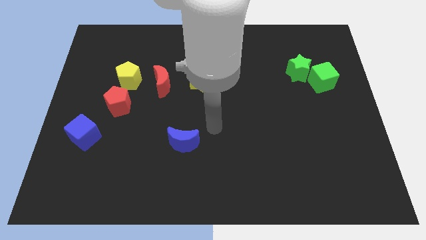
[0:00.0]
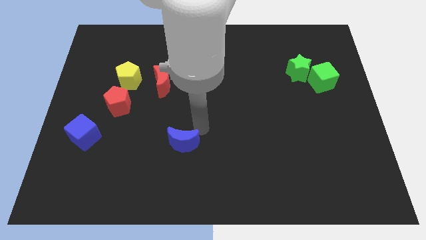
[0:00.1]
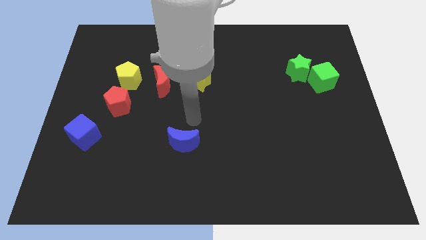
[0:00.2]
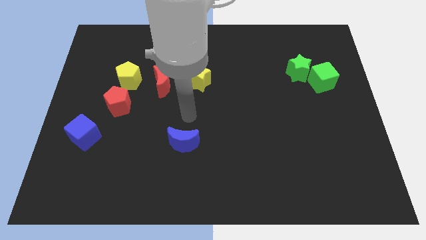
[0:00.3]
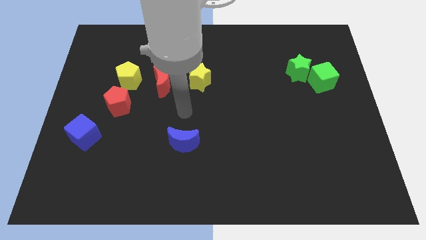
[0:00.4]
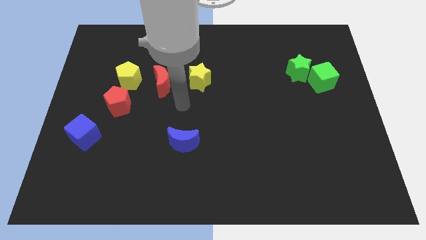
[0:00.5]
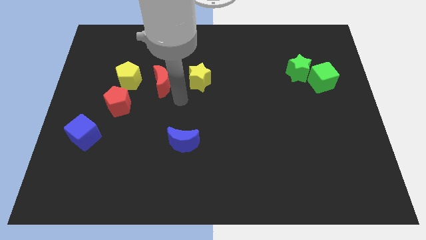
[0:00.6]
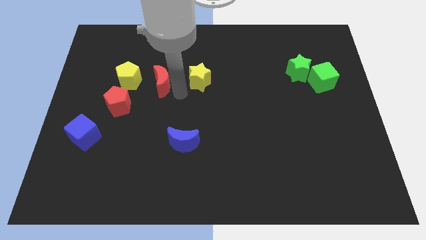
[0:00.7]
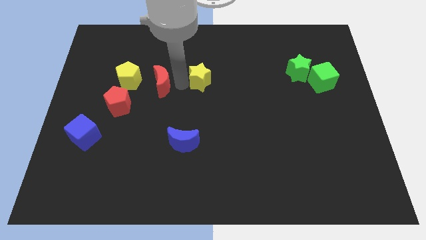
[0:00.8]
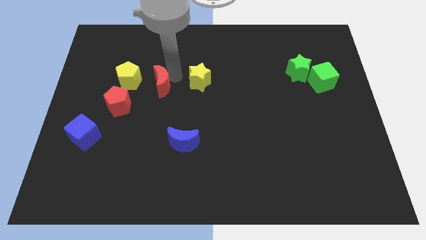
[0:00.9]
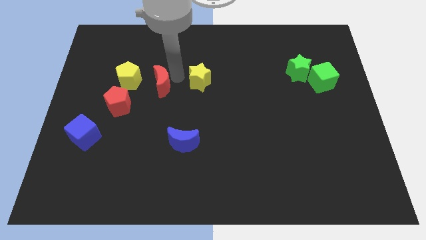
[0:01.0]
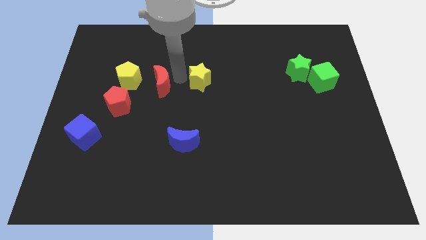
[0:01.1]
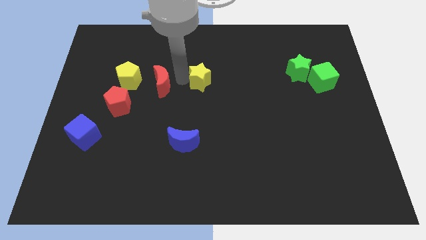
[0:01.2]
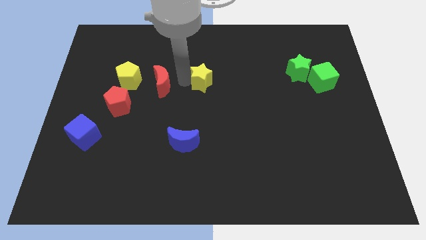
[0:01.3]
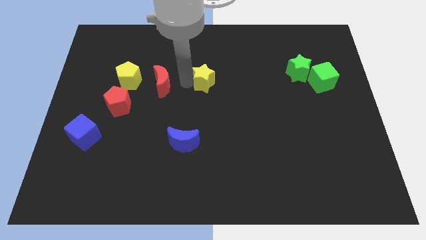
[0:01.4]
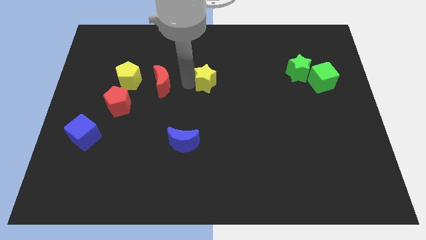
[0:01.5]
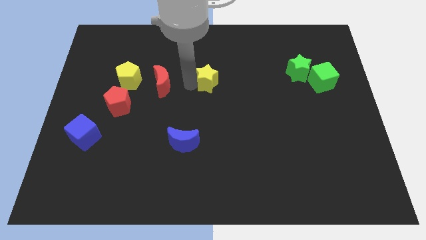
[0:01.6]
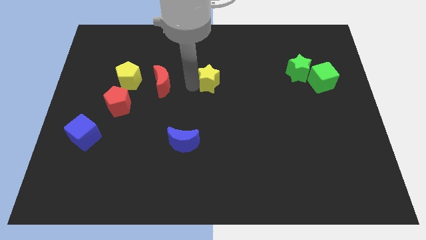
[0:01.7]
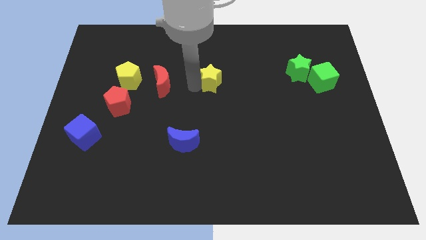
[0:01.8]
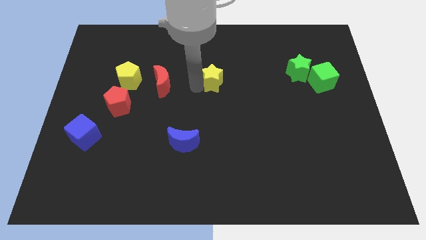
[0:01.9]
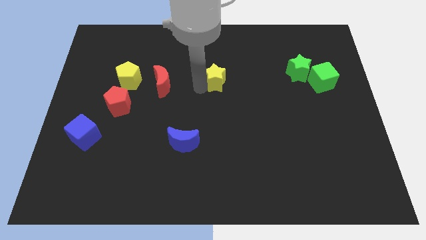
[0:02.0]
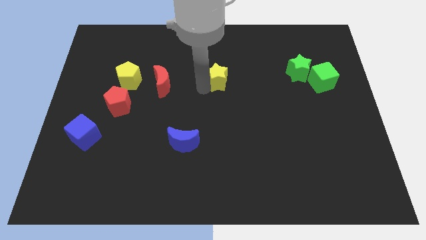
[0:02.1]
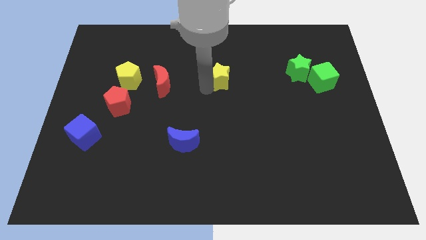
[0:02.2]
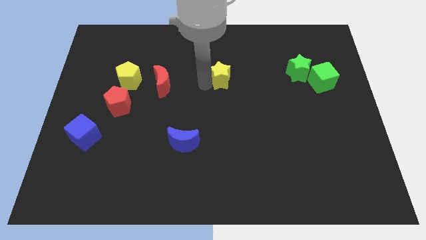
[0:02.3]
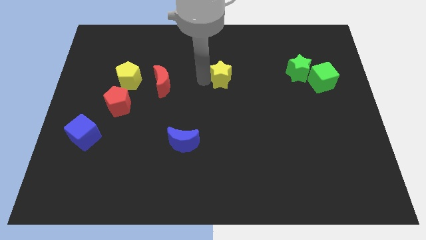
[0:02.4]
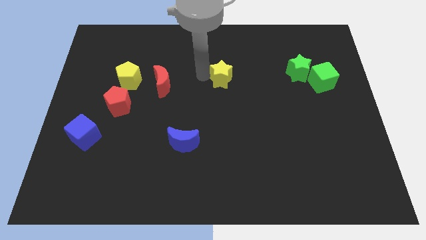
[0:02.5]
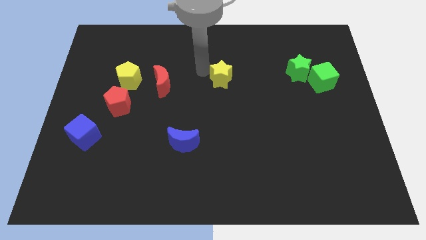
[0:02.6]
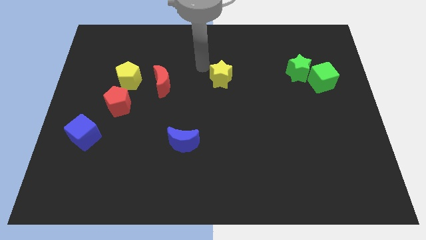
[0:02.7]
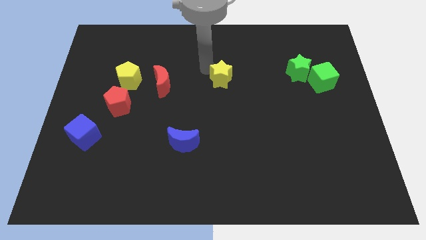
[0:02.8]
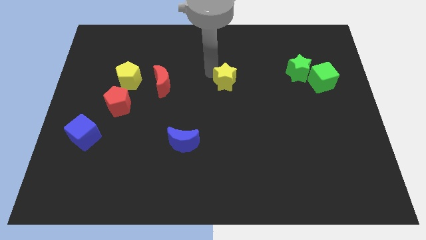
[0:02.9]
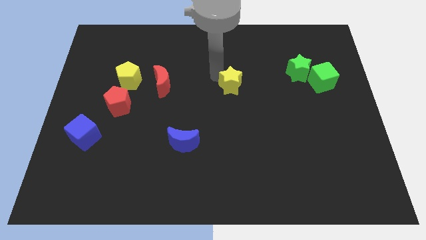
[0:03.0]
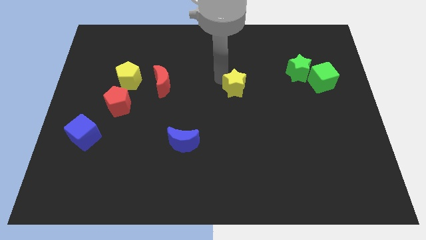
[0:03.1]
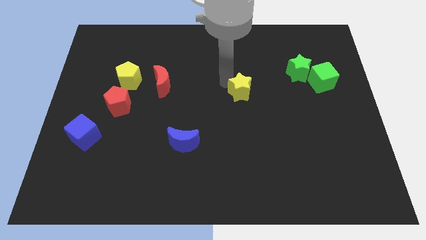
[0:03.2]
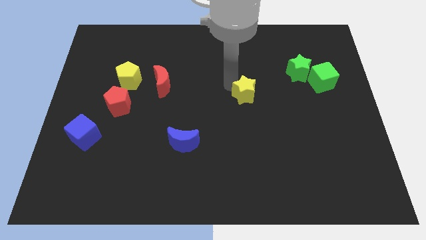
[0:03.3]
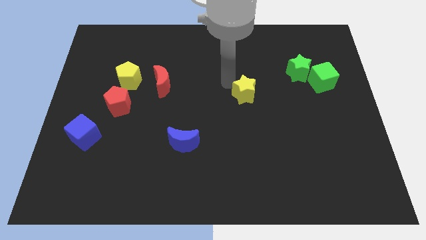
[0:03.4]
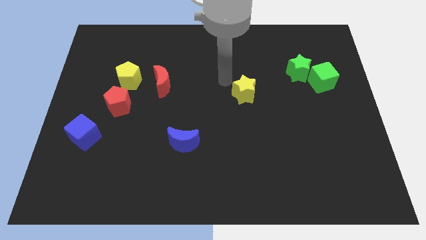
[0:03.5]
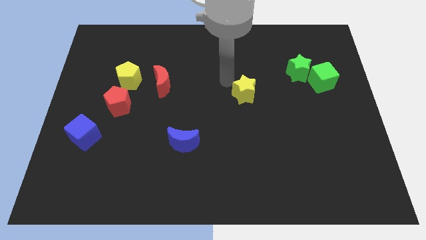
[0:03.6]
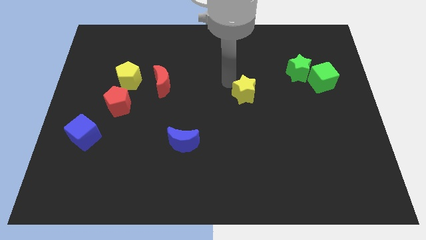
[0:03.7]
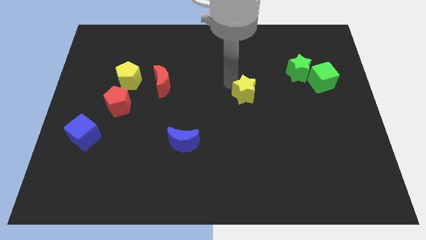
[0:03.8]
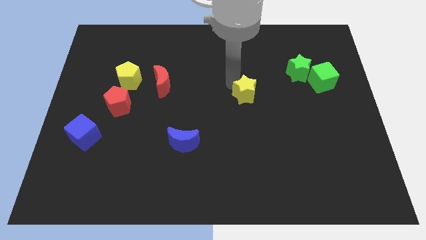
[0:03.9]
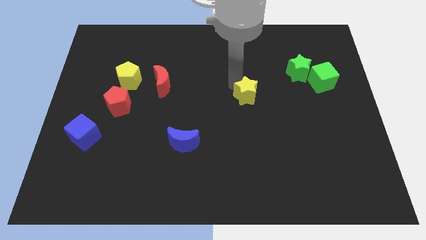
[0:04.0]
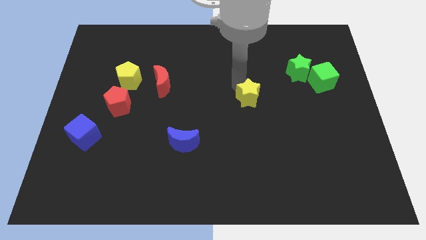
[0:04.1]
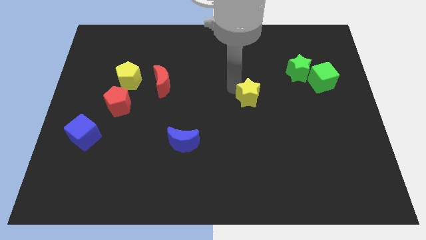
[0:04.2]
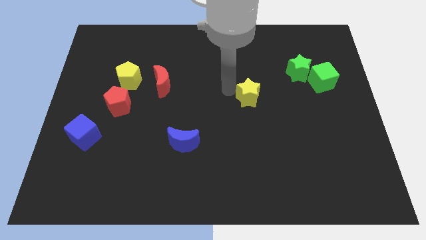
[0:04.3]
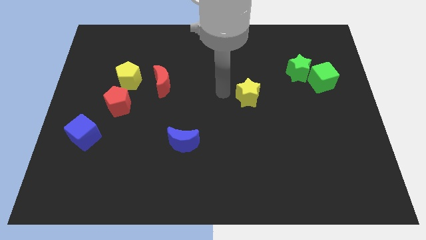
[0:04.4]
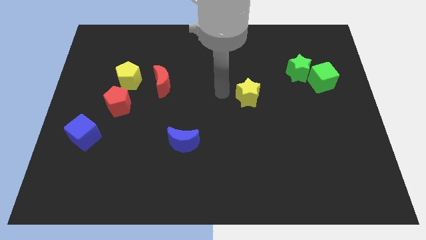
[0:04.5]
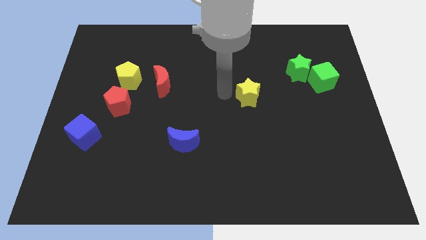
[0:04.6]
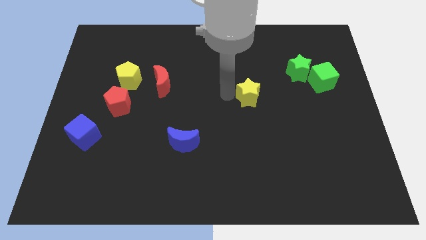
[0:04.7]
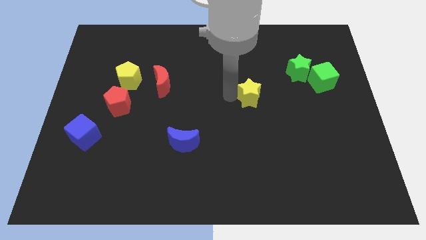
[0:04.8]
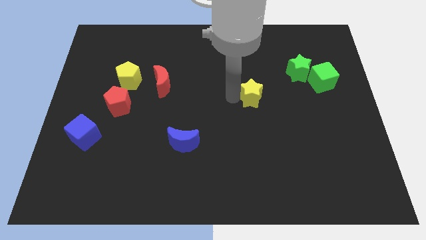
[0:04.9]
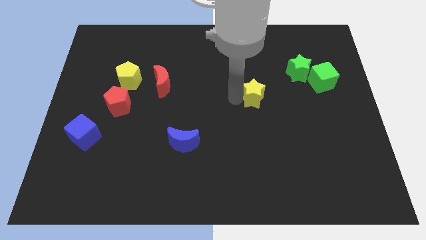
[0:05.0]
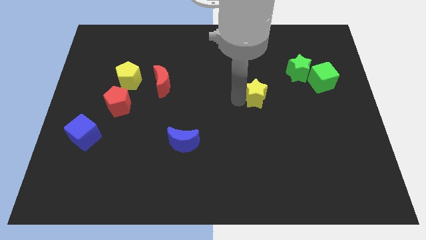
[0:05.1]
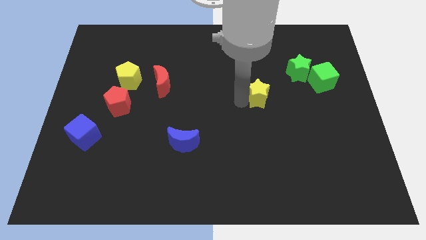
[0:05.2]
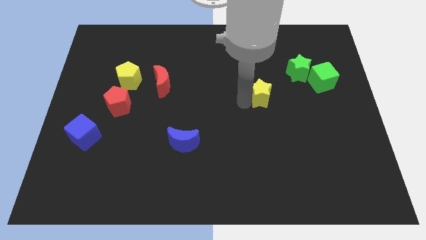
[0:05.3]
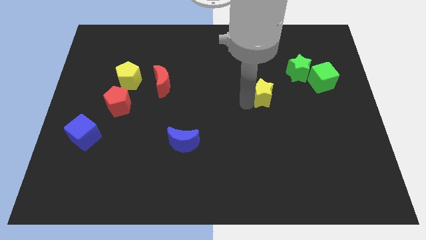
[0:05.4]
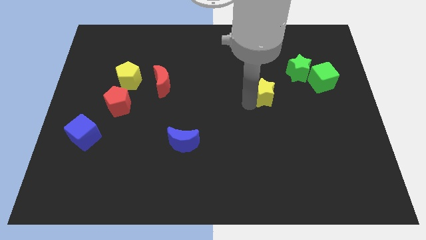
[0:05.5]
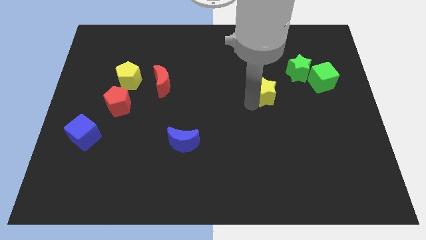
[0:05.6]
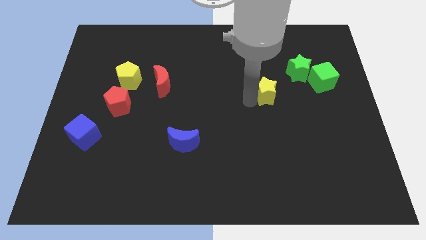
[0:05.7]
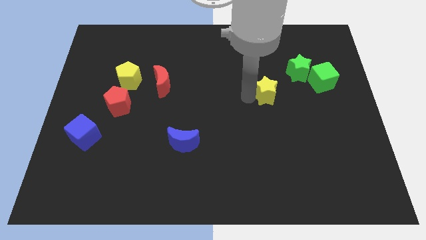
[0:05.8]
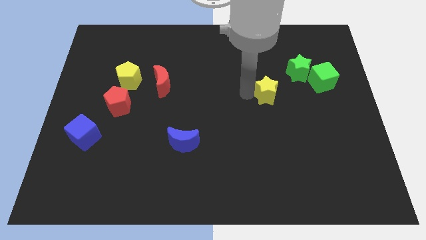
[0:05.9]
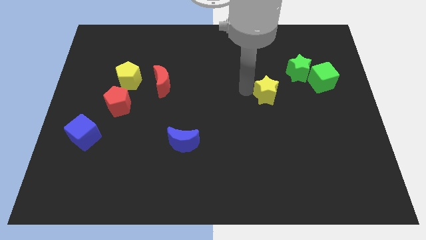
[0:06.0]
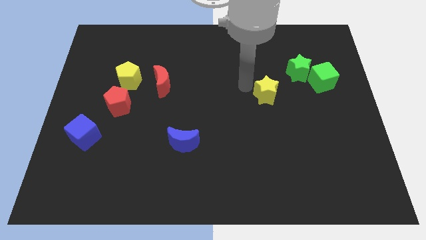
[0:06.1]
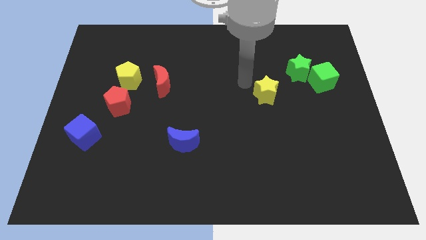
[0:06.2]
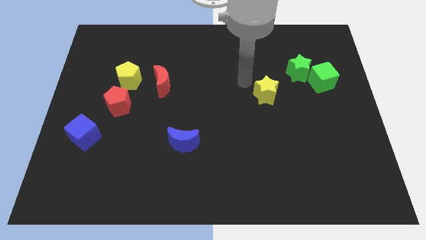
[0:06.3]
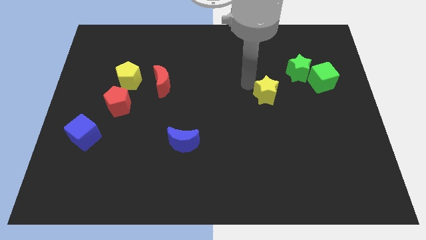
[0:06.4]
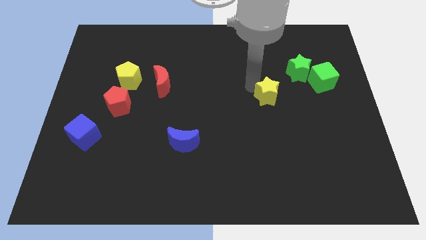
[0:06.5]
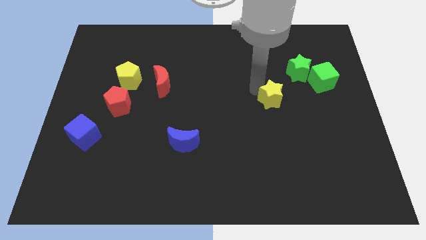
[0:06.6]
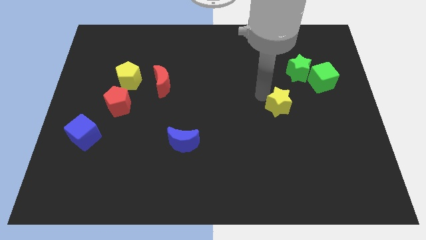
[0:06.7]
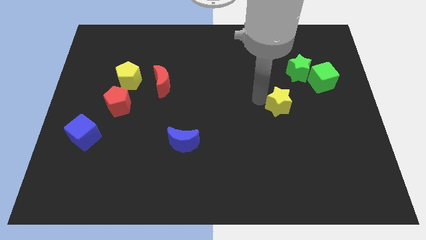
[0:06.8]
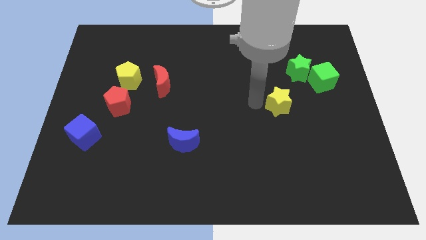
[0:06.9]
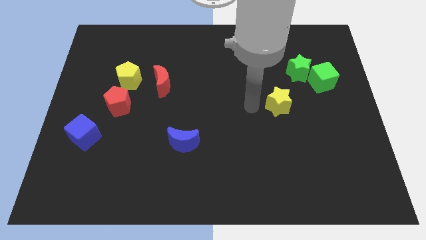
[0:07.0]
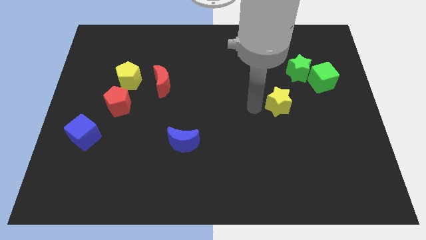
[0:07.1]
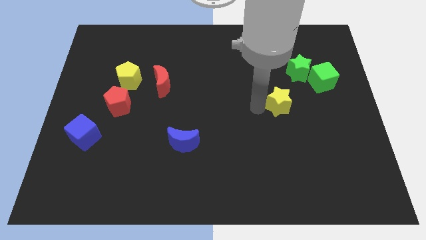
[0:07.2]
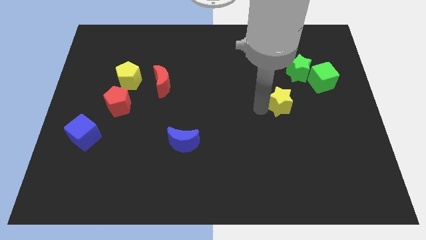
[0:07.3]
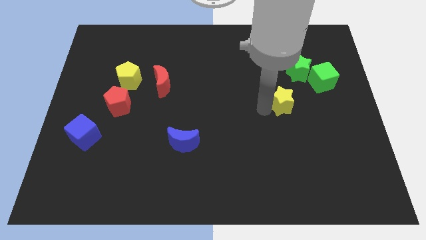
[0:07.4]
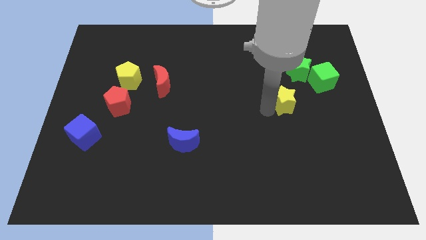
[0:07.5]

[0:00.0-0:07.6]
slide the yellow star to the bottom side of the green star
